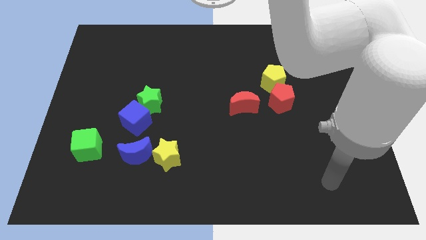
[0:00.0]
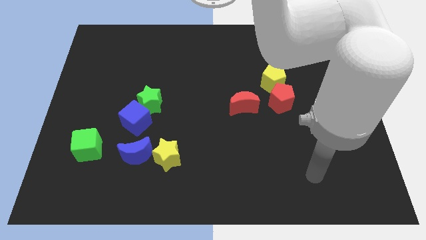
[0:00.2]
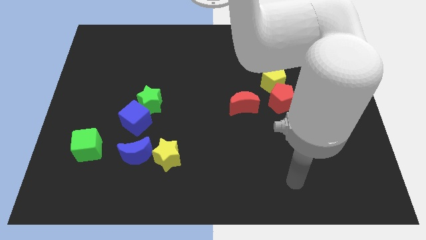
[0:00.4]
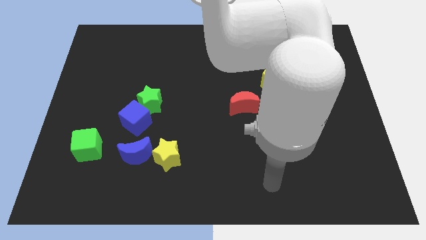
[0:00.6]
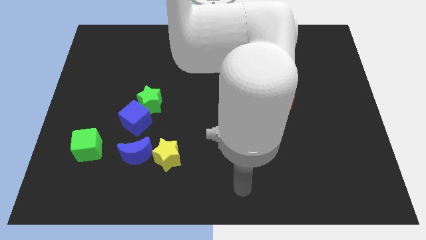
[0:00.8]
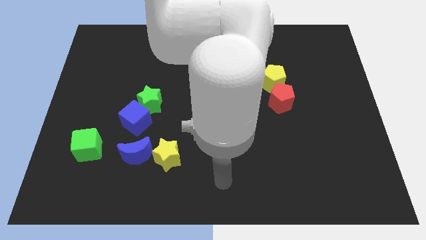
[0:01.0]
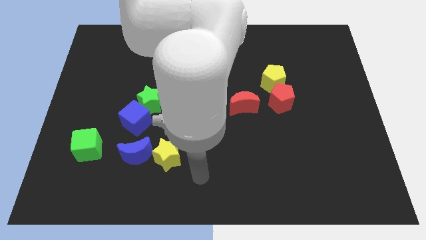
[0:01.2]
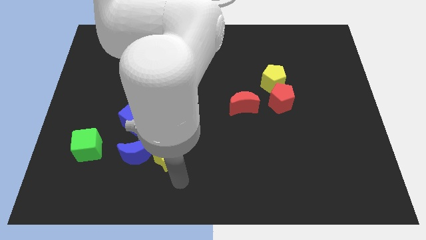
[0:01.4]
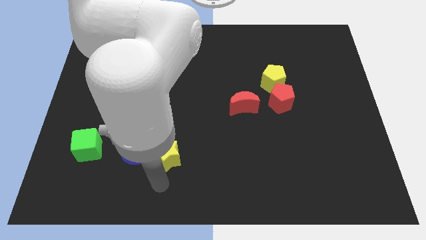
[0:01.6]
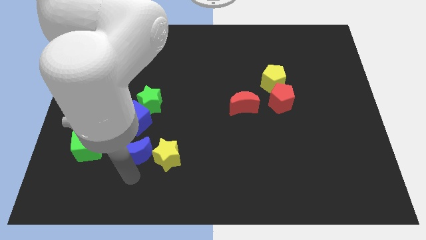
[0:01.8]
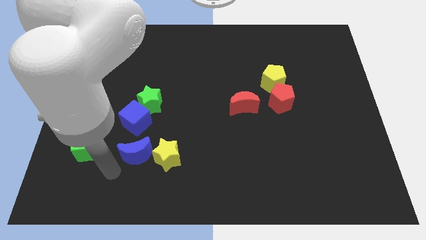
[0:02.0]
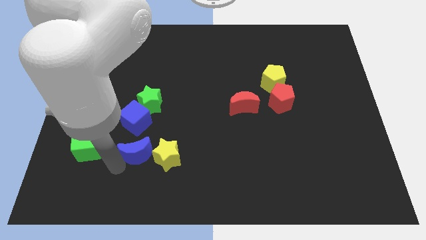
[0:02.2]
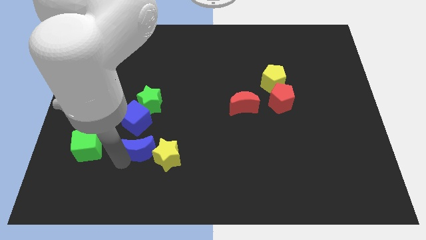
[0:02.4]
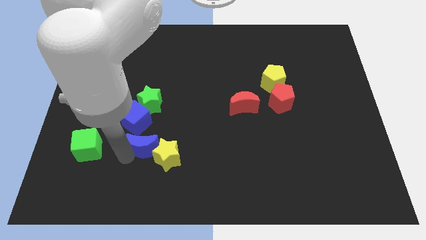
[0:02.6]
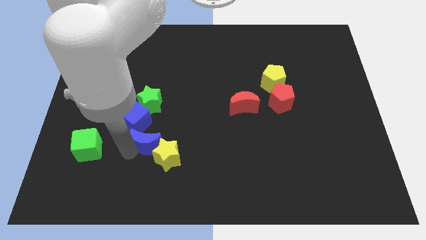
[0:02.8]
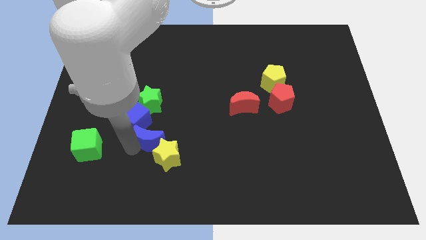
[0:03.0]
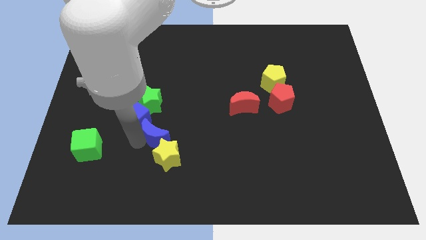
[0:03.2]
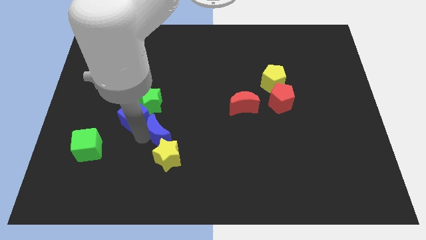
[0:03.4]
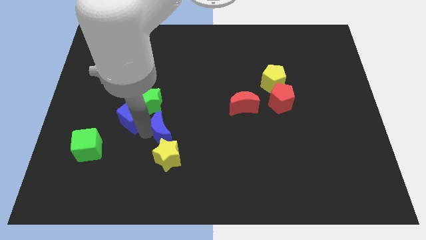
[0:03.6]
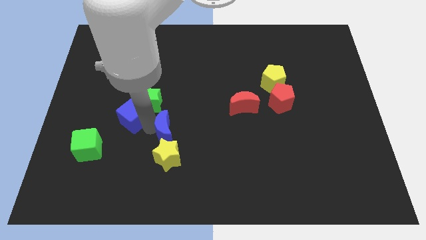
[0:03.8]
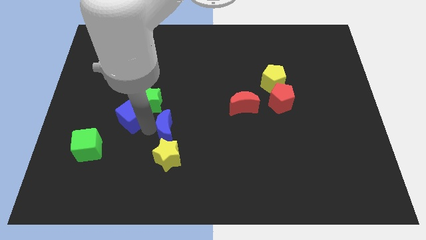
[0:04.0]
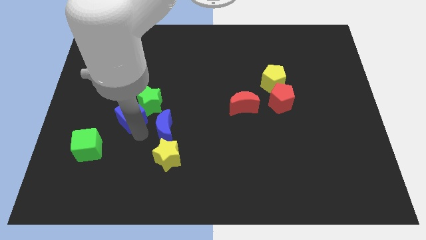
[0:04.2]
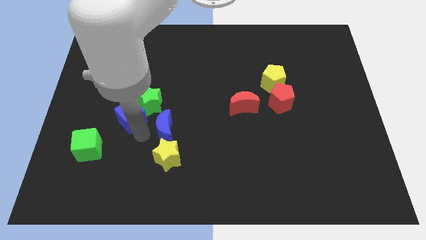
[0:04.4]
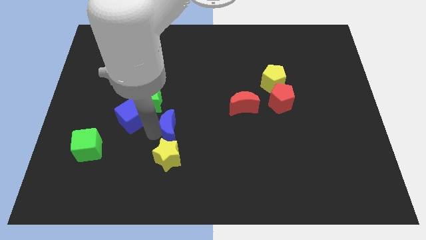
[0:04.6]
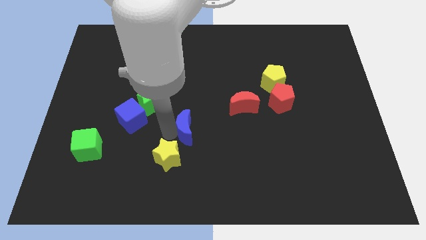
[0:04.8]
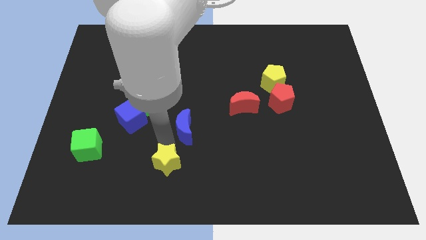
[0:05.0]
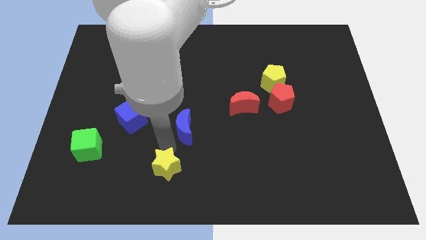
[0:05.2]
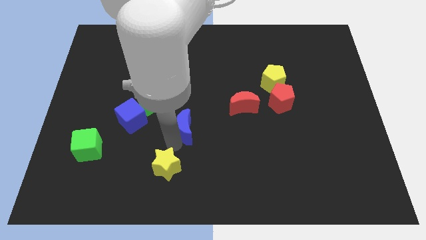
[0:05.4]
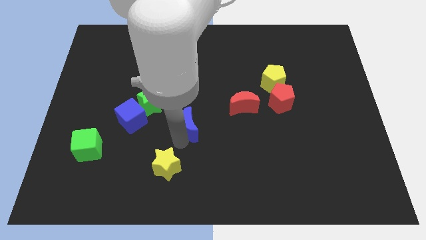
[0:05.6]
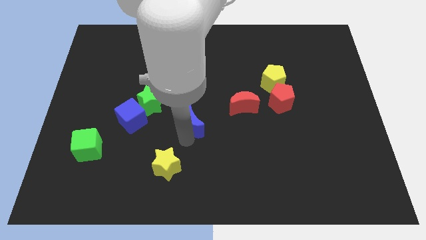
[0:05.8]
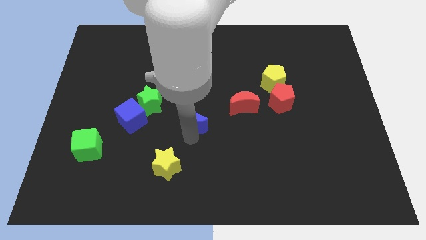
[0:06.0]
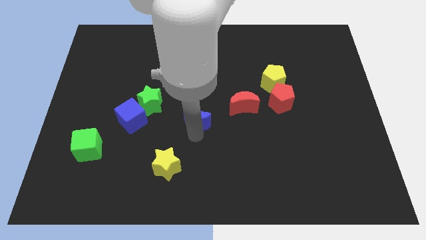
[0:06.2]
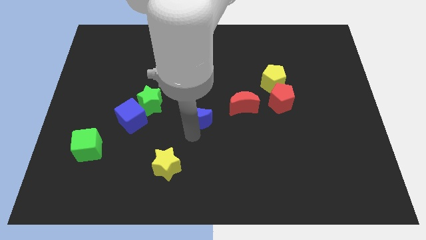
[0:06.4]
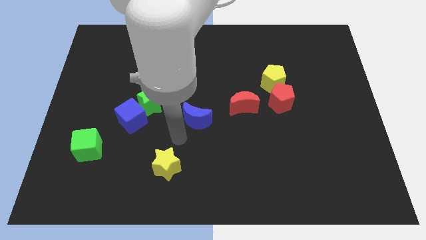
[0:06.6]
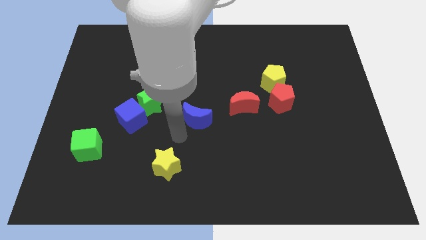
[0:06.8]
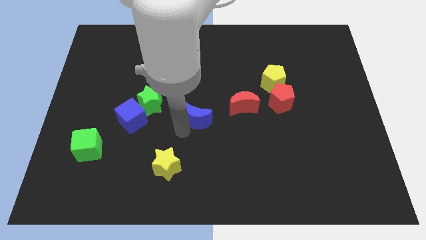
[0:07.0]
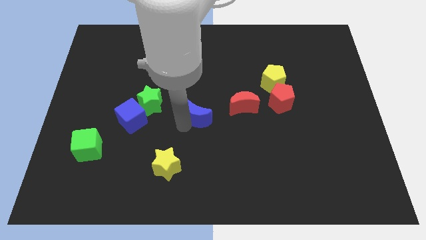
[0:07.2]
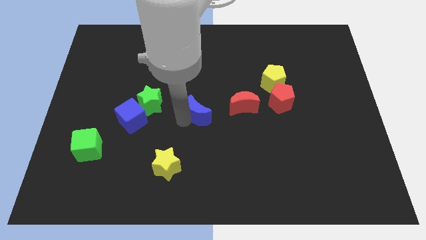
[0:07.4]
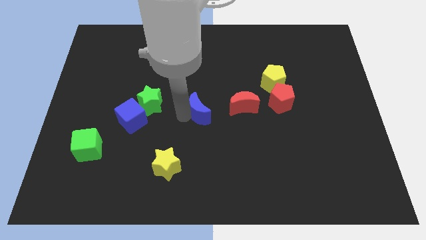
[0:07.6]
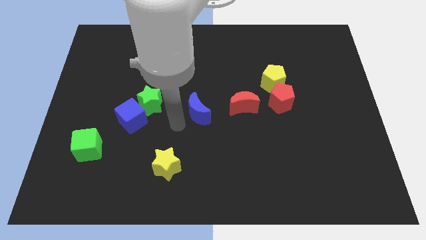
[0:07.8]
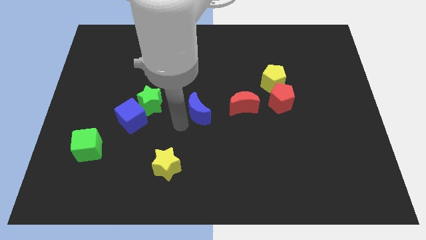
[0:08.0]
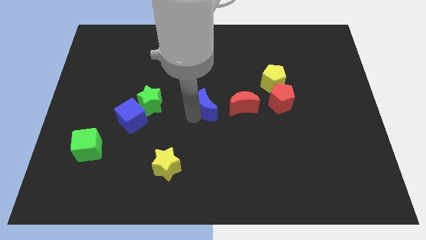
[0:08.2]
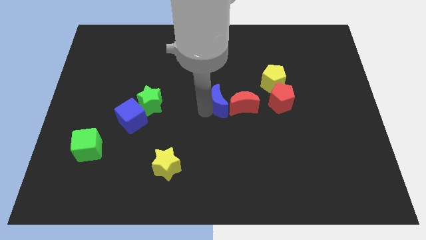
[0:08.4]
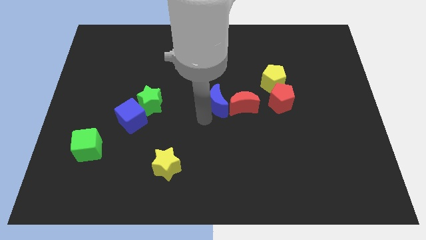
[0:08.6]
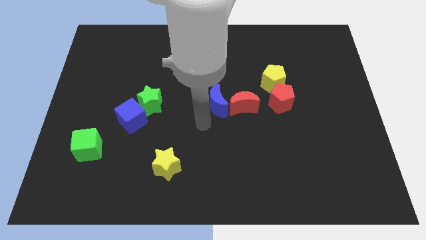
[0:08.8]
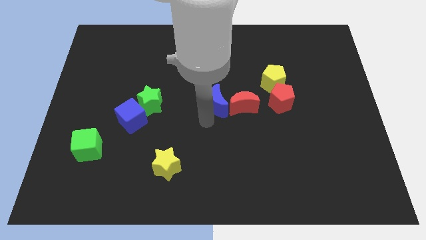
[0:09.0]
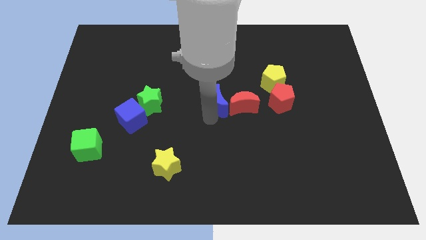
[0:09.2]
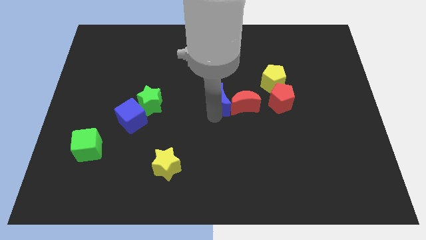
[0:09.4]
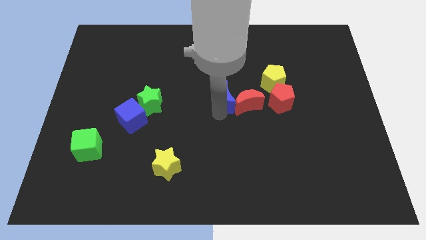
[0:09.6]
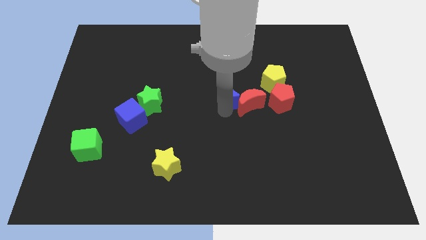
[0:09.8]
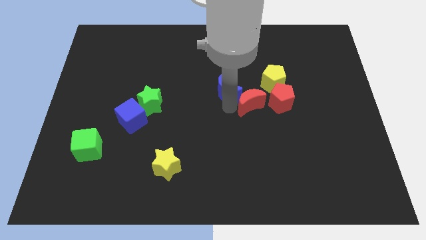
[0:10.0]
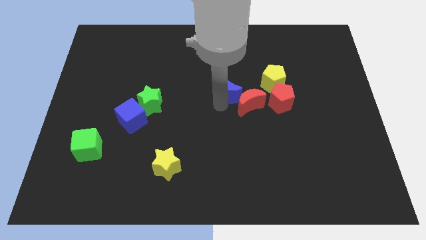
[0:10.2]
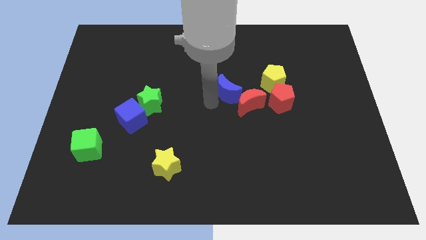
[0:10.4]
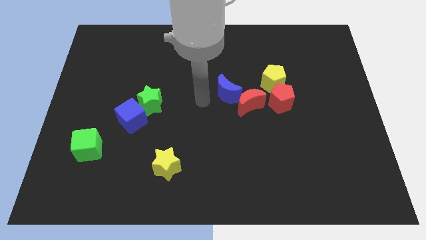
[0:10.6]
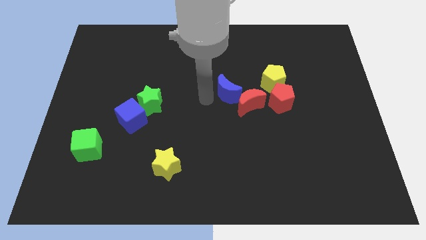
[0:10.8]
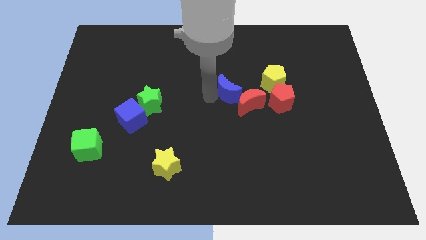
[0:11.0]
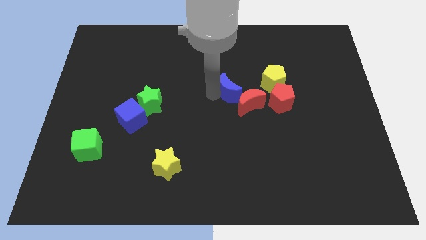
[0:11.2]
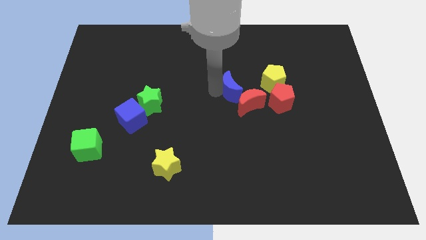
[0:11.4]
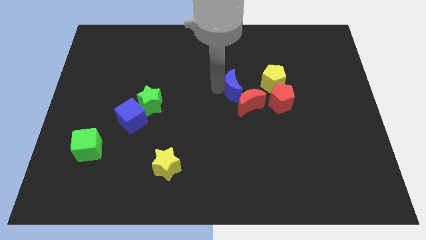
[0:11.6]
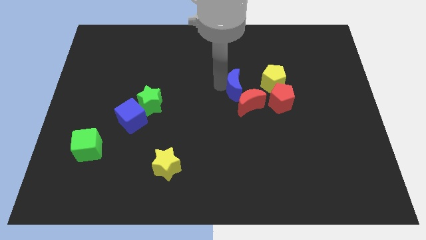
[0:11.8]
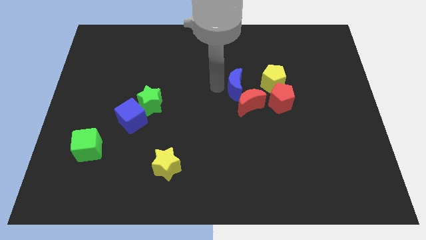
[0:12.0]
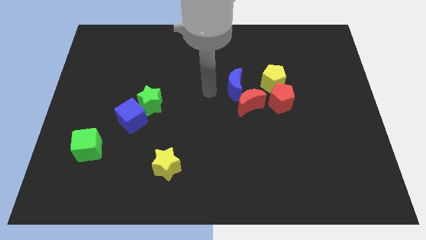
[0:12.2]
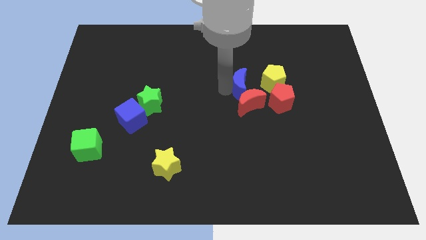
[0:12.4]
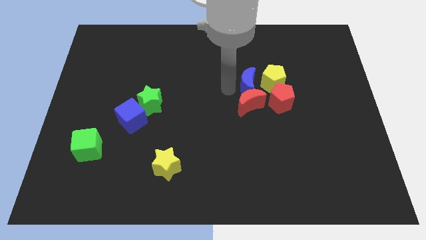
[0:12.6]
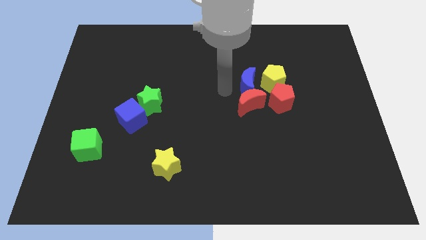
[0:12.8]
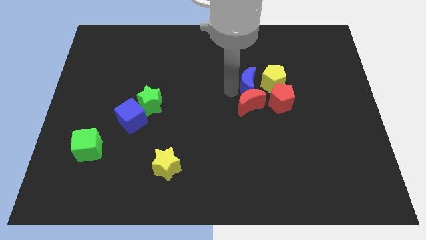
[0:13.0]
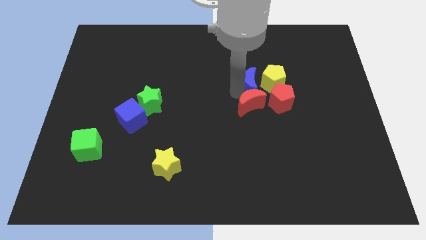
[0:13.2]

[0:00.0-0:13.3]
move the blue moon next to the yellow pentagon

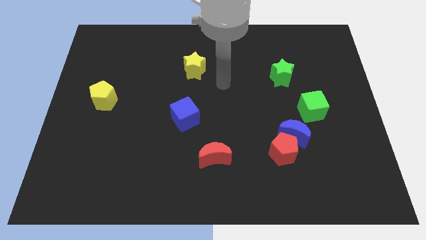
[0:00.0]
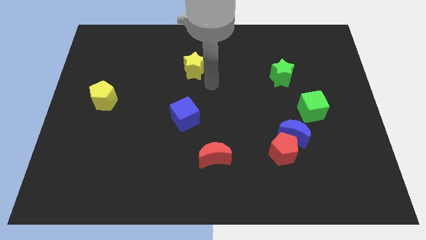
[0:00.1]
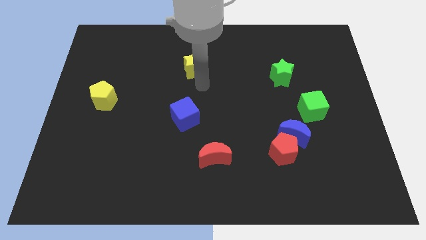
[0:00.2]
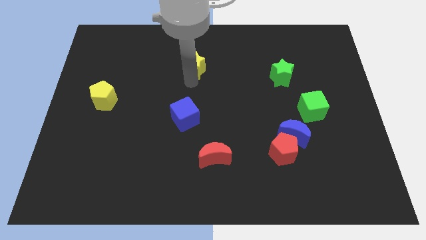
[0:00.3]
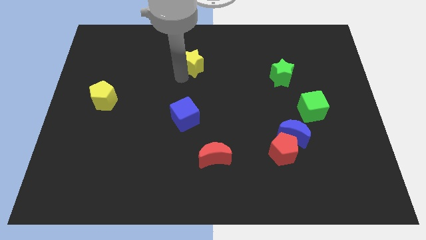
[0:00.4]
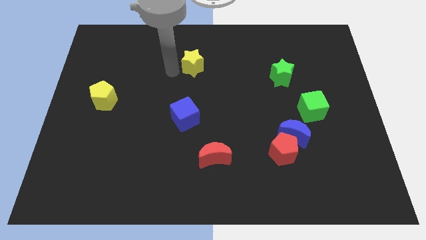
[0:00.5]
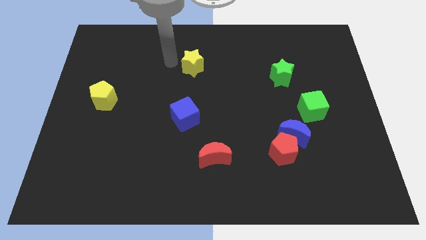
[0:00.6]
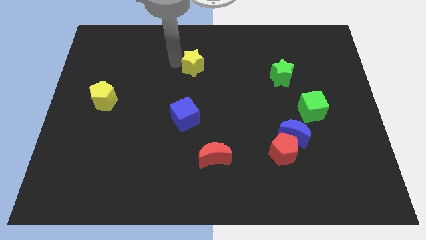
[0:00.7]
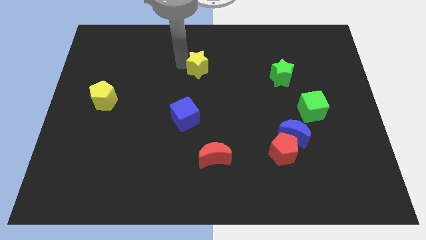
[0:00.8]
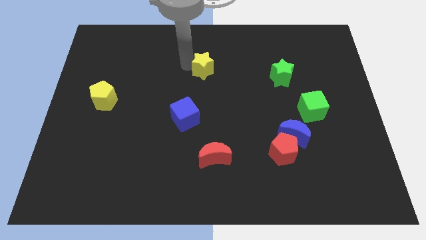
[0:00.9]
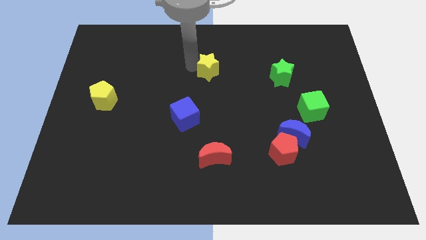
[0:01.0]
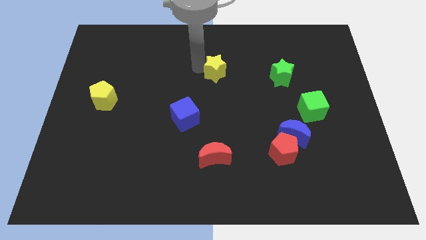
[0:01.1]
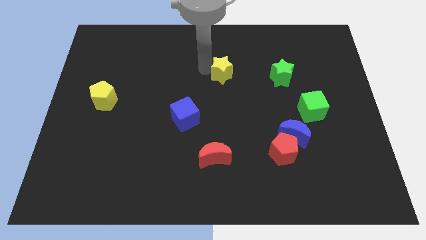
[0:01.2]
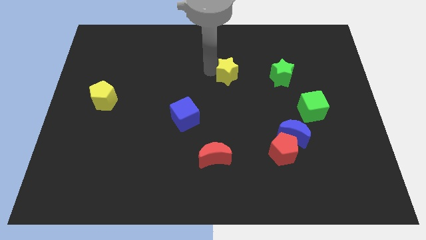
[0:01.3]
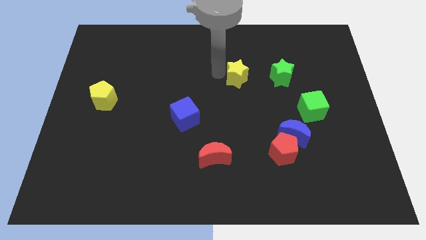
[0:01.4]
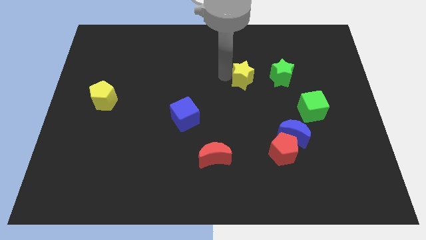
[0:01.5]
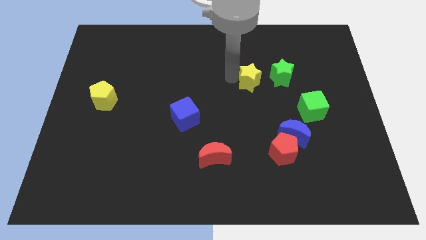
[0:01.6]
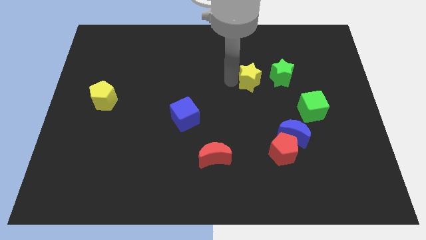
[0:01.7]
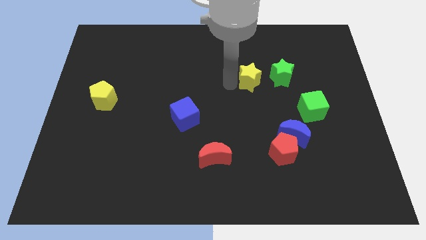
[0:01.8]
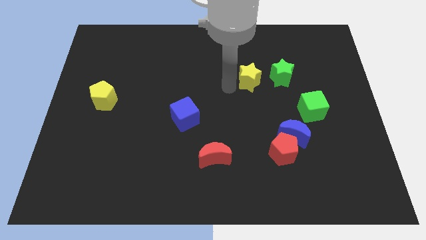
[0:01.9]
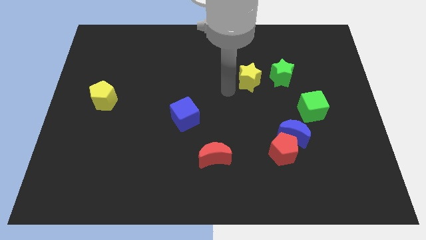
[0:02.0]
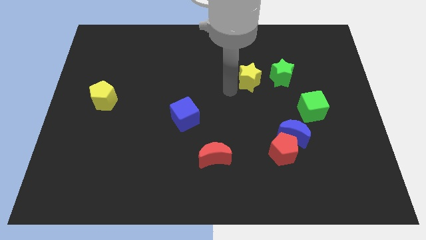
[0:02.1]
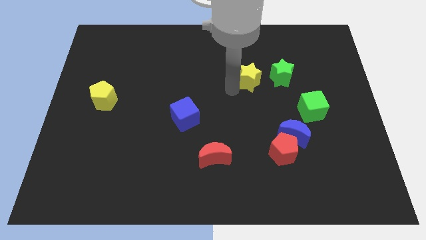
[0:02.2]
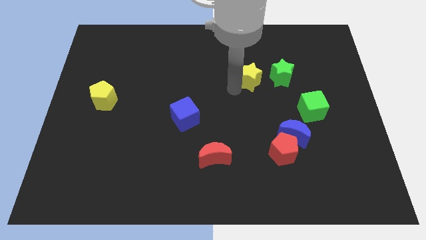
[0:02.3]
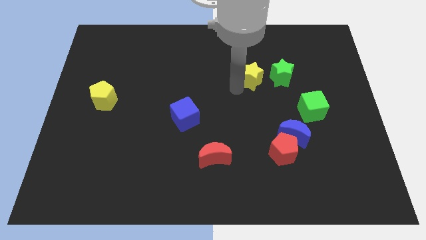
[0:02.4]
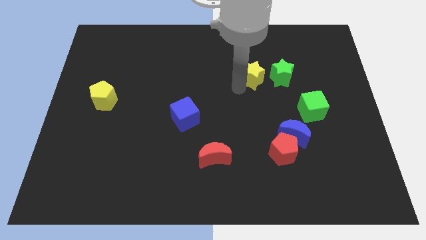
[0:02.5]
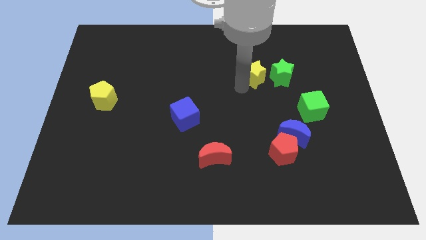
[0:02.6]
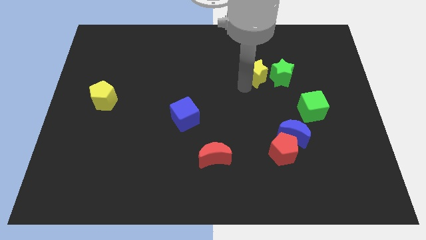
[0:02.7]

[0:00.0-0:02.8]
put the yellow star towards the green star
